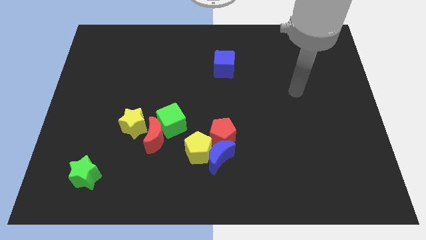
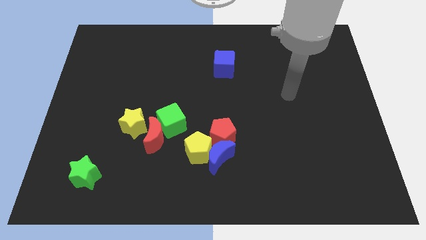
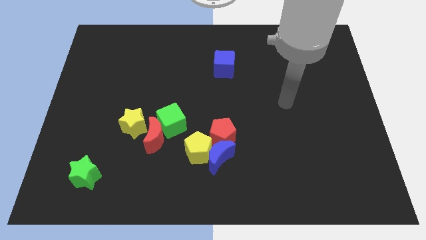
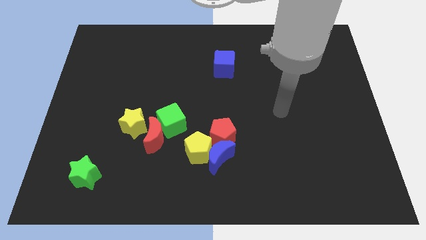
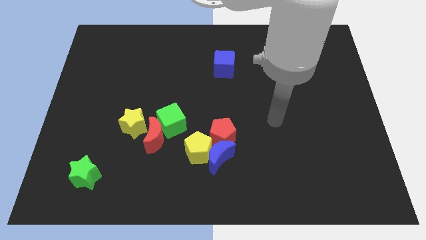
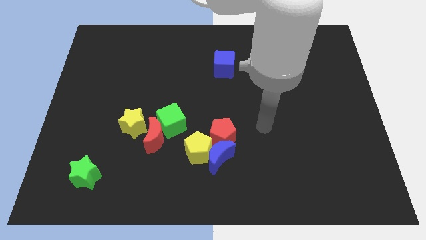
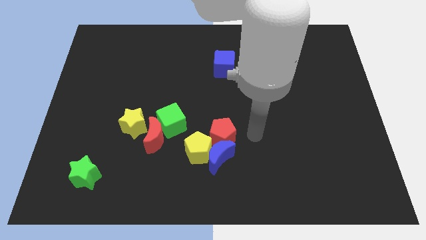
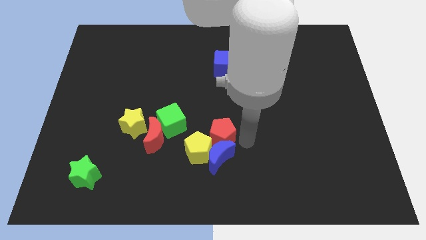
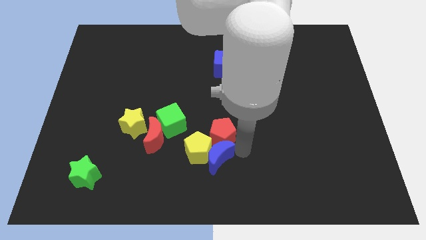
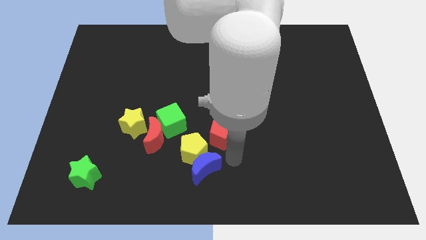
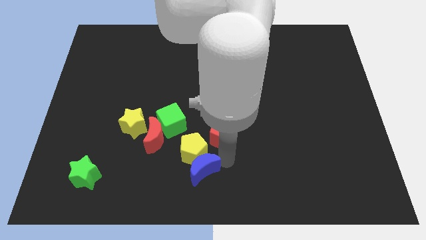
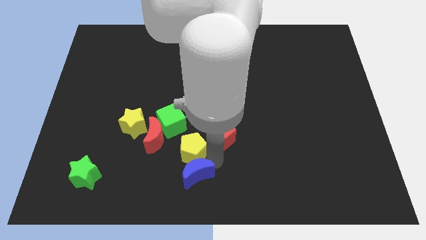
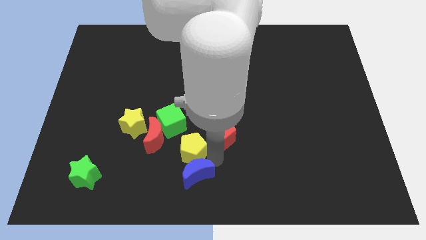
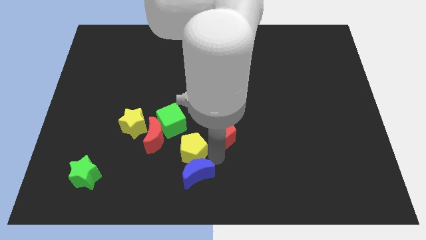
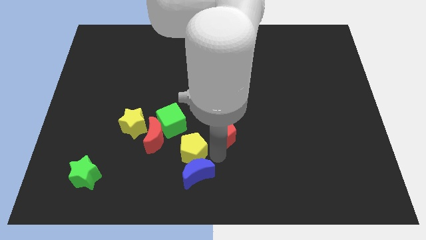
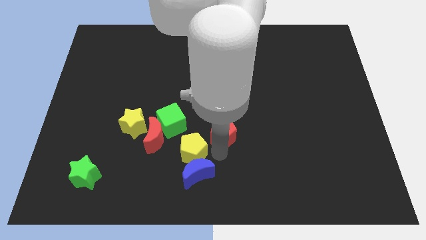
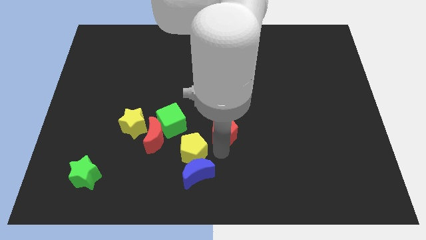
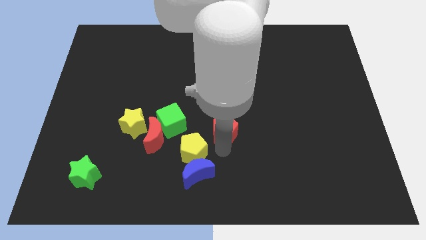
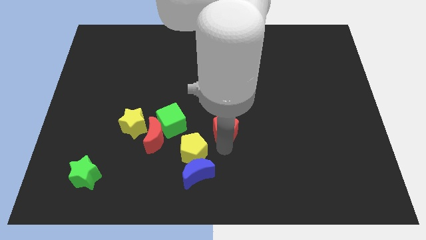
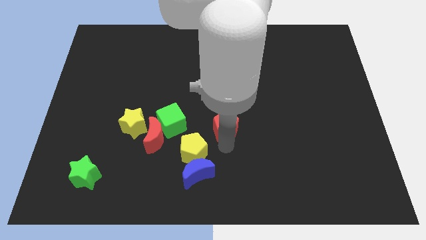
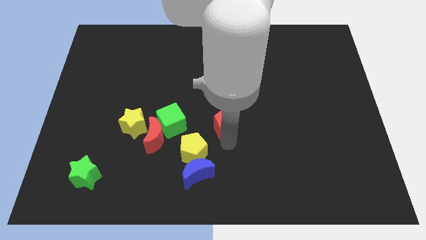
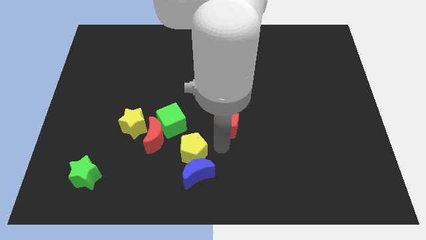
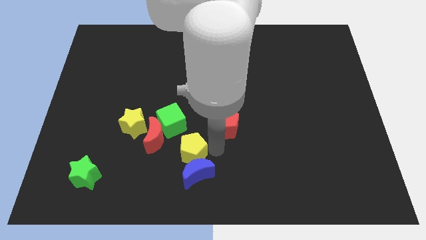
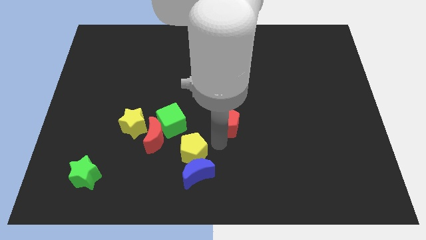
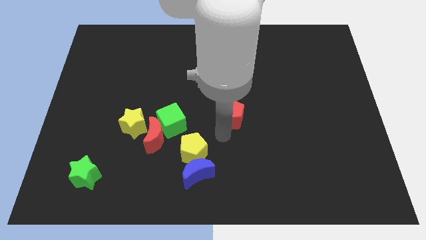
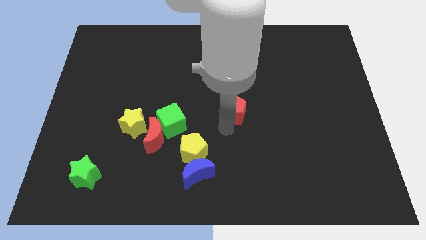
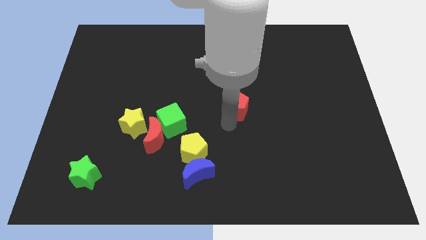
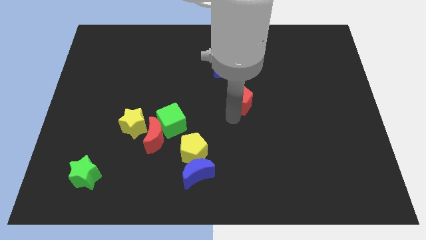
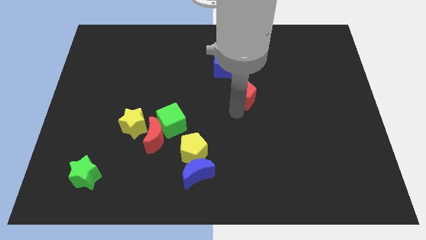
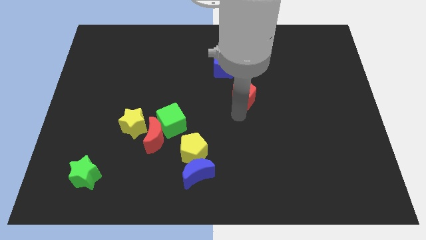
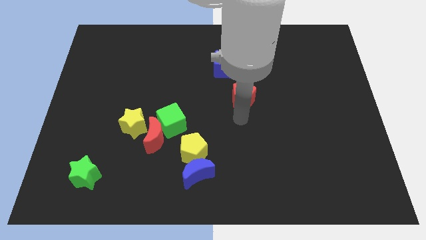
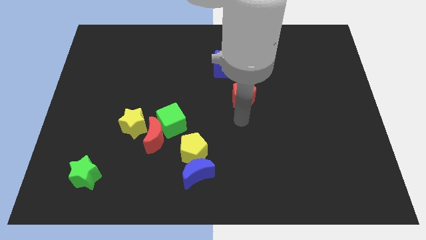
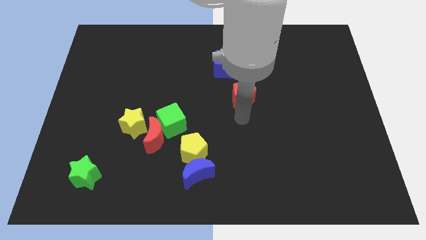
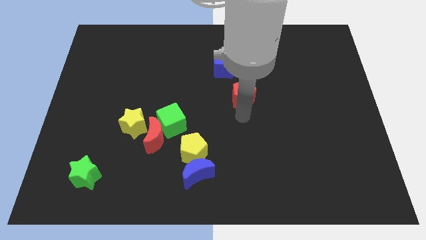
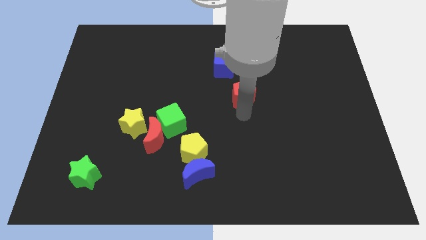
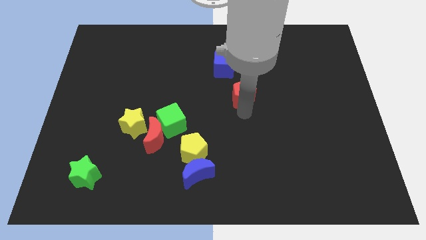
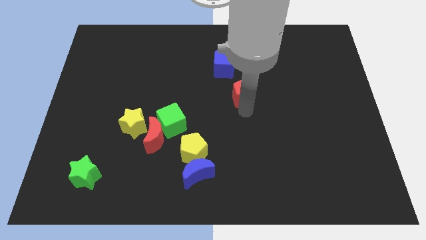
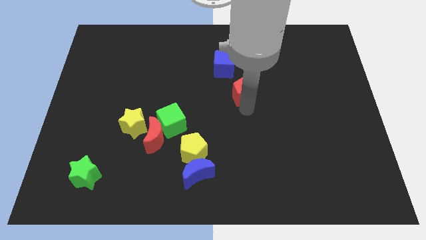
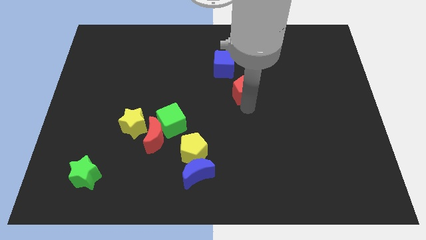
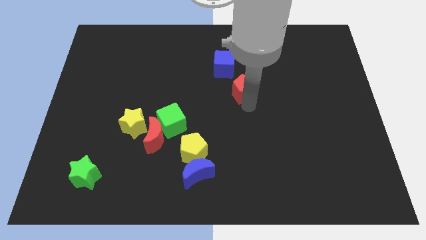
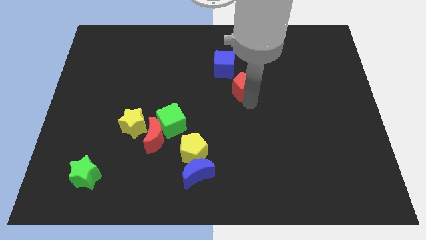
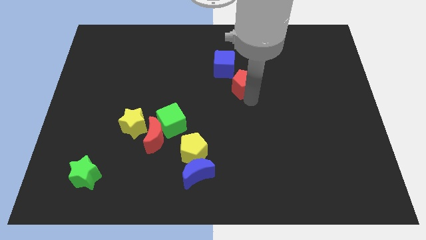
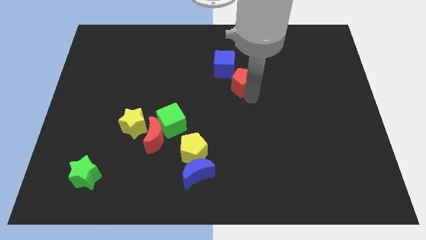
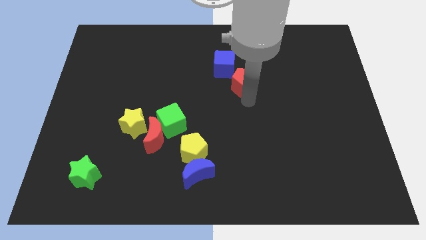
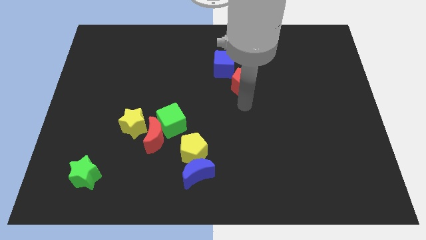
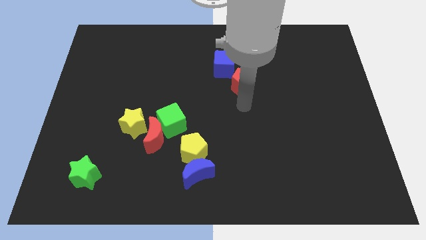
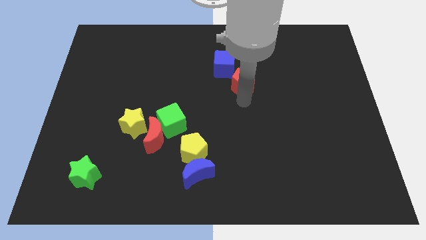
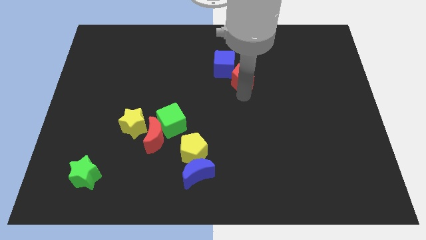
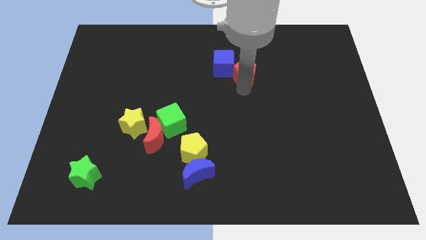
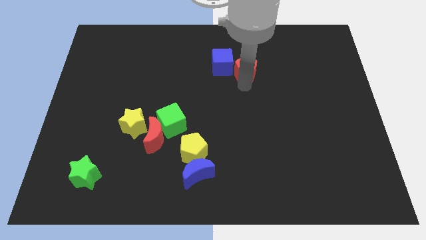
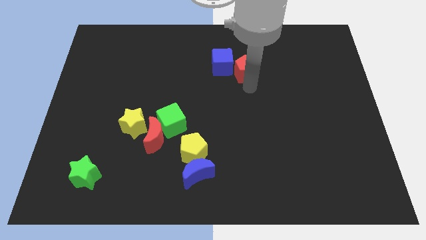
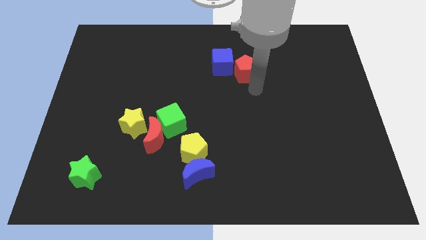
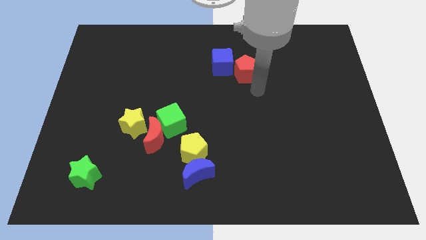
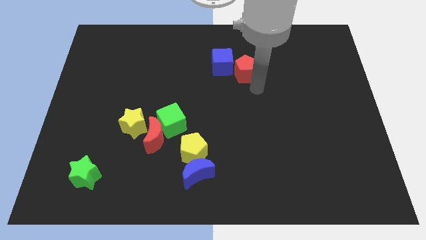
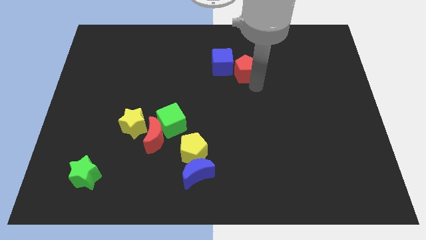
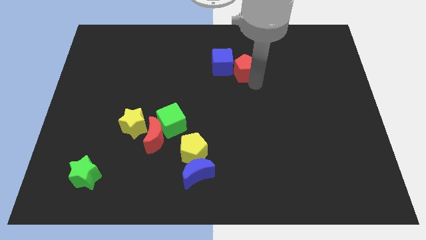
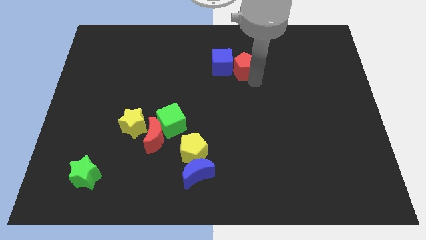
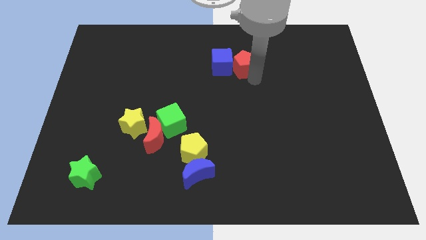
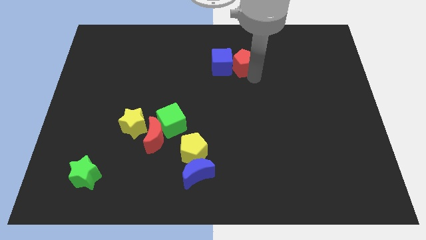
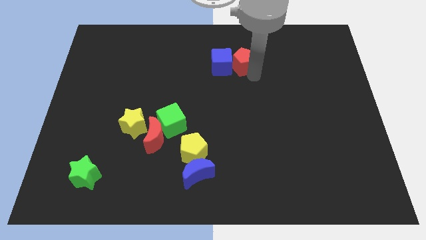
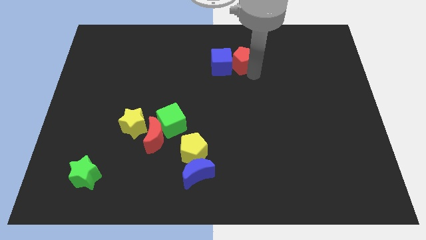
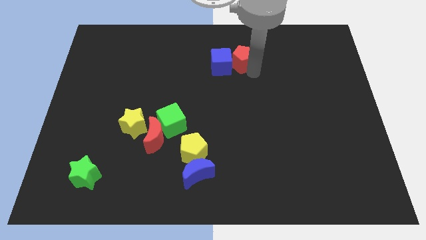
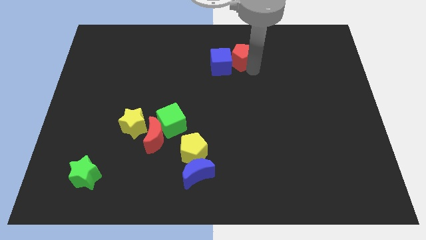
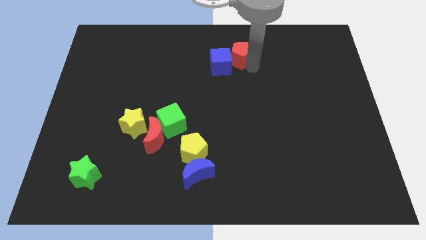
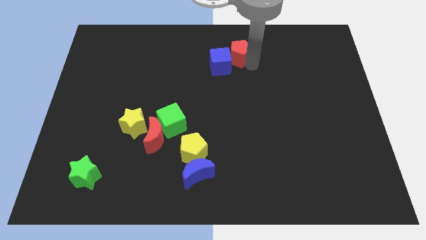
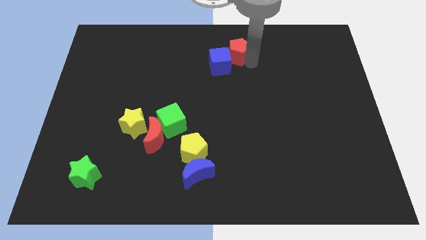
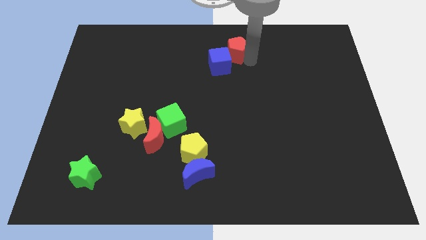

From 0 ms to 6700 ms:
push the red pentagon to the top side
